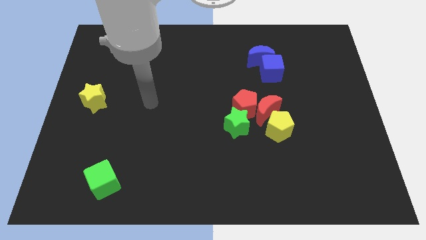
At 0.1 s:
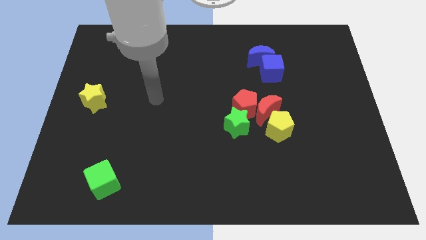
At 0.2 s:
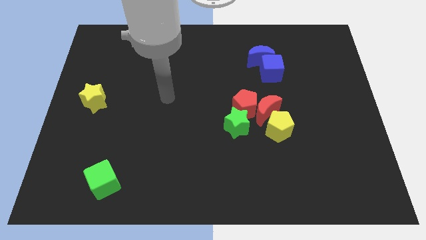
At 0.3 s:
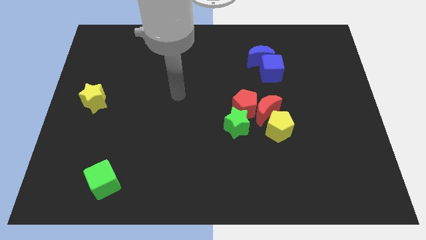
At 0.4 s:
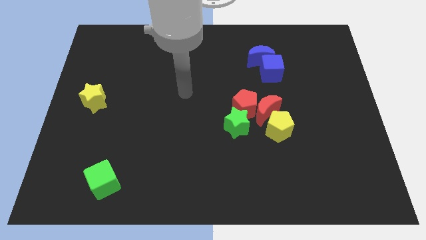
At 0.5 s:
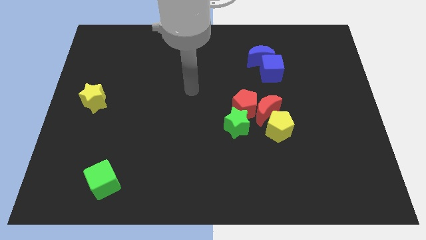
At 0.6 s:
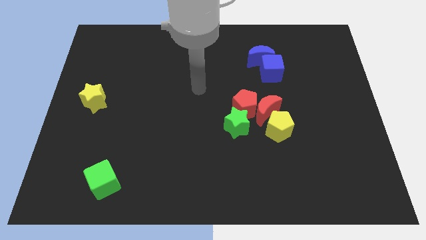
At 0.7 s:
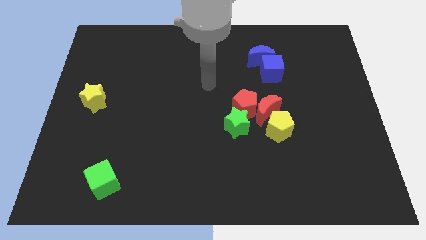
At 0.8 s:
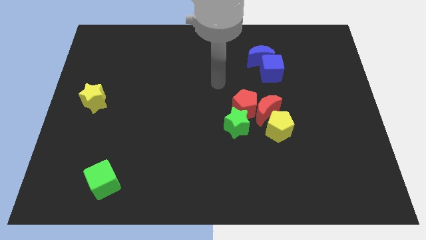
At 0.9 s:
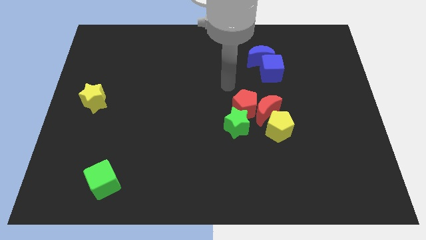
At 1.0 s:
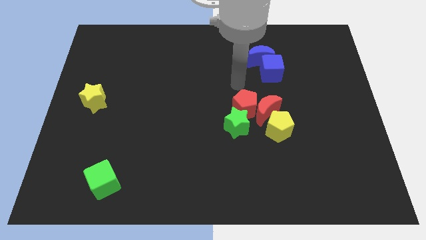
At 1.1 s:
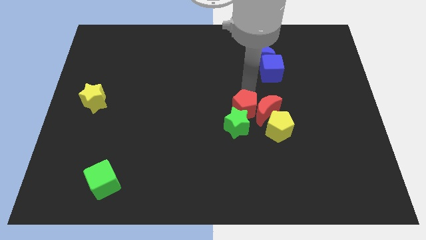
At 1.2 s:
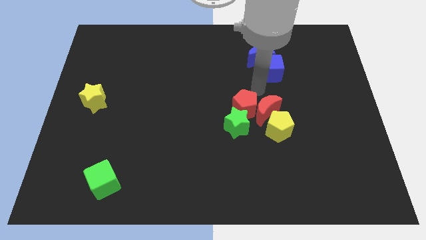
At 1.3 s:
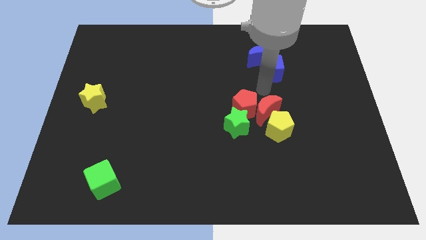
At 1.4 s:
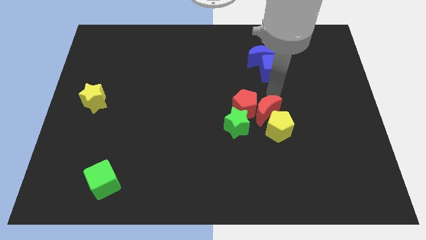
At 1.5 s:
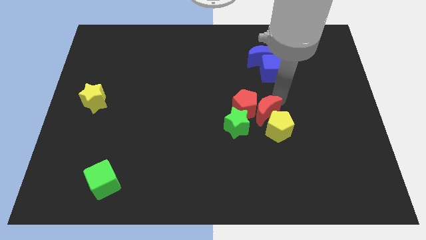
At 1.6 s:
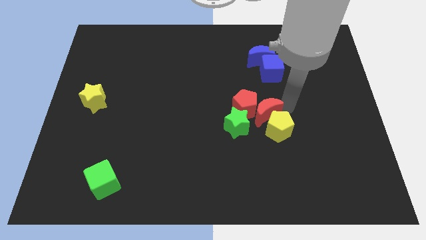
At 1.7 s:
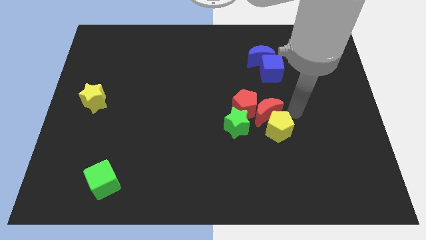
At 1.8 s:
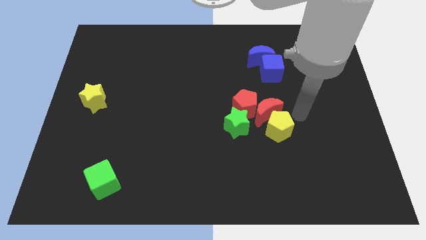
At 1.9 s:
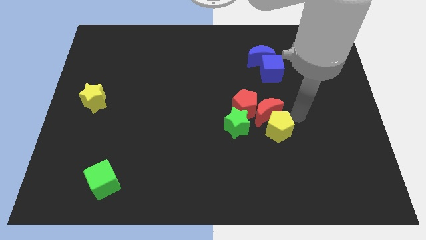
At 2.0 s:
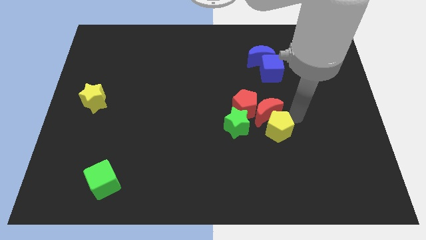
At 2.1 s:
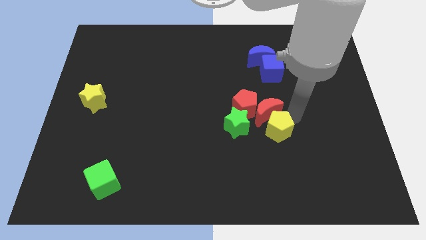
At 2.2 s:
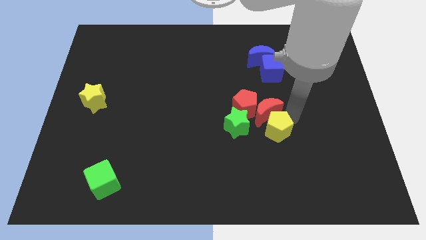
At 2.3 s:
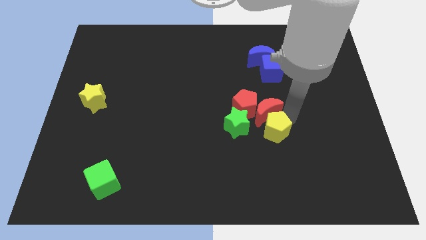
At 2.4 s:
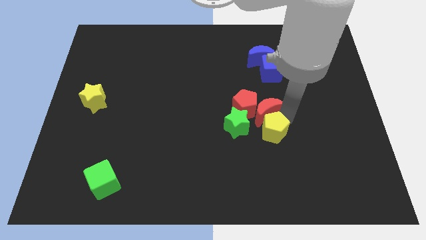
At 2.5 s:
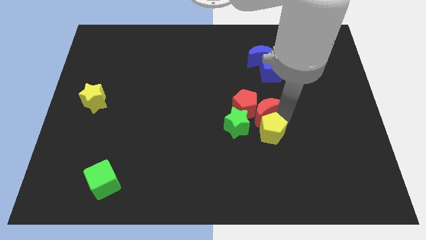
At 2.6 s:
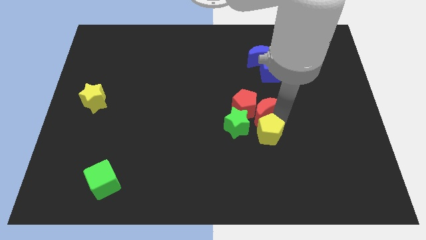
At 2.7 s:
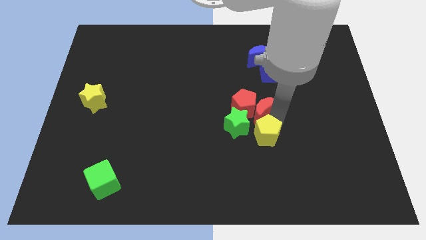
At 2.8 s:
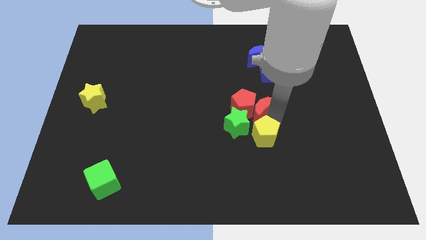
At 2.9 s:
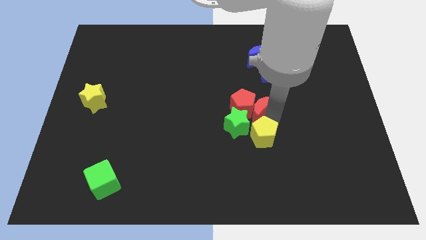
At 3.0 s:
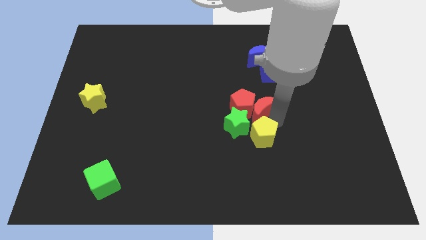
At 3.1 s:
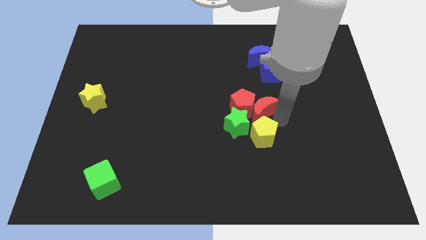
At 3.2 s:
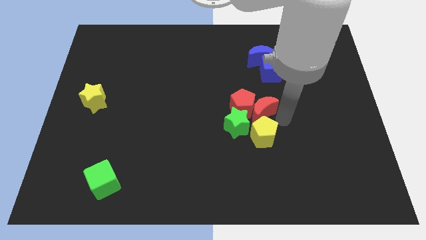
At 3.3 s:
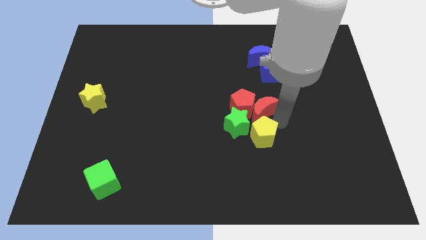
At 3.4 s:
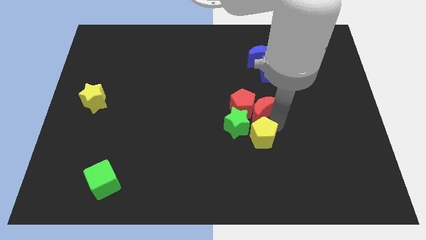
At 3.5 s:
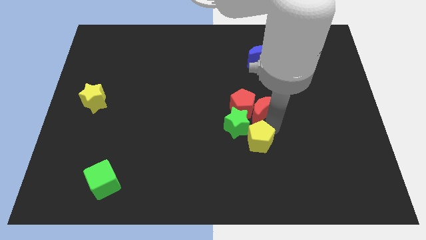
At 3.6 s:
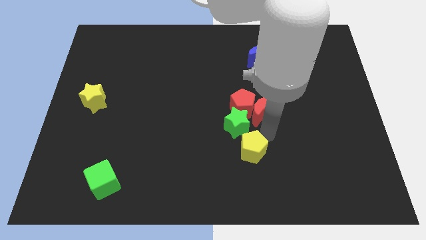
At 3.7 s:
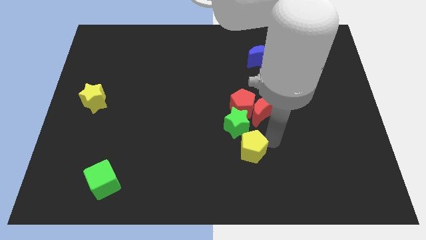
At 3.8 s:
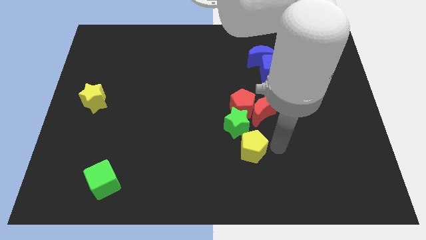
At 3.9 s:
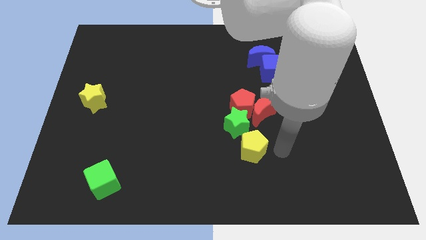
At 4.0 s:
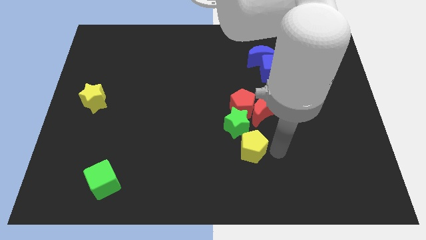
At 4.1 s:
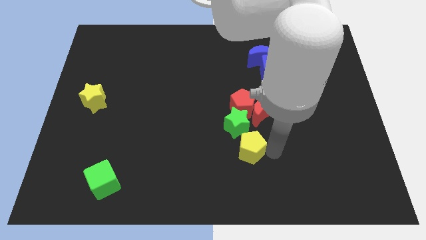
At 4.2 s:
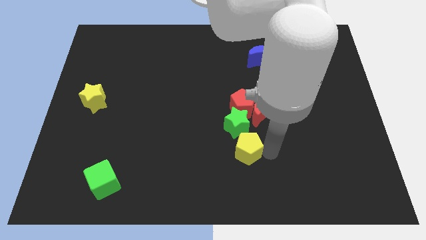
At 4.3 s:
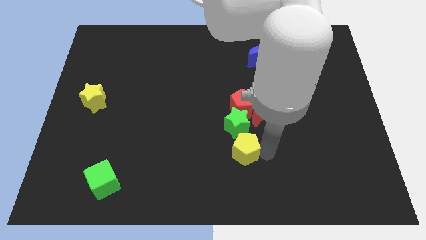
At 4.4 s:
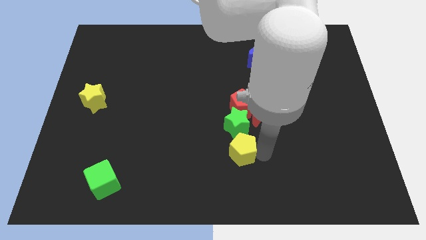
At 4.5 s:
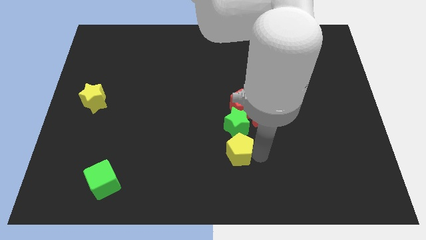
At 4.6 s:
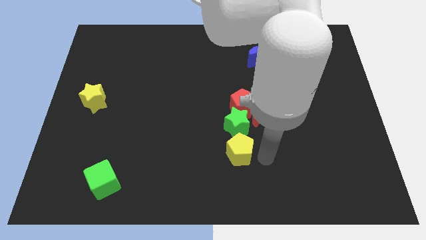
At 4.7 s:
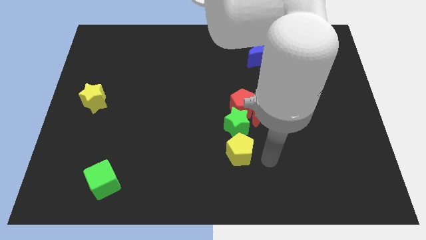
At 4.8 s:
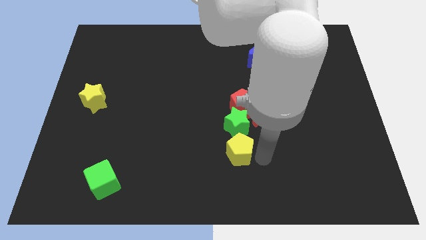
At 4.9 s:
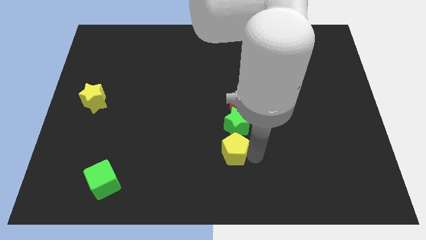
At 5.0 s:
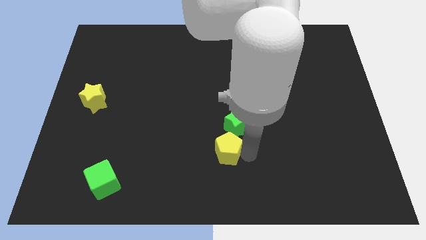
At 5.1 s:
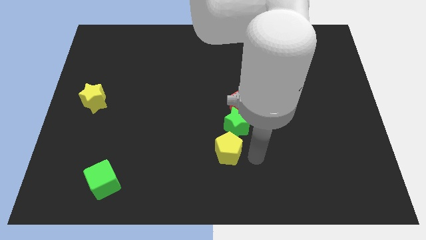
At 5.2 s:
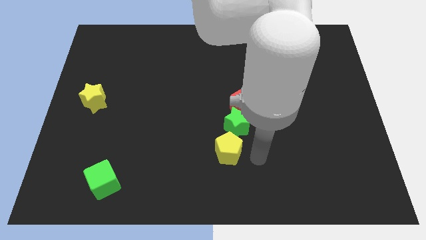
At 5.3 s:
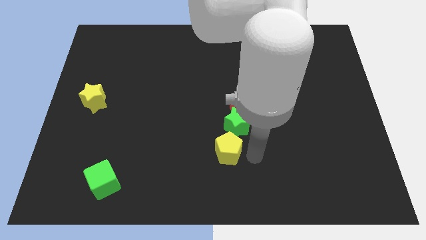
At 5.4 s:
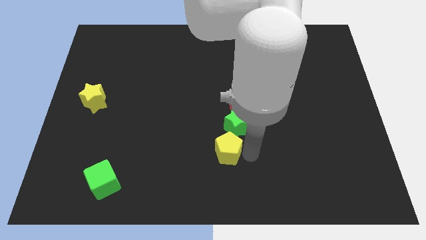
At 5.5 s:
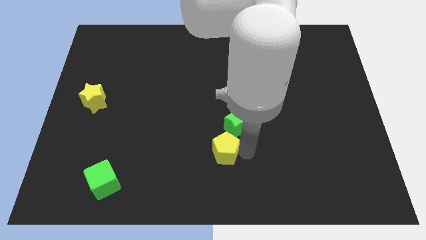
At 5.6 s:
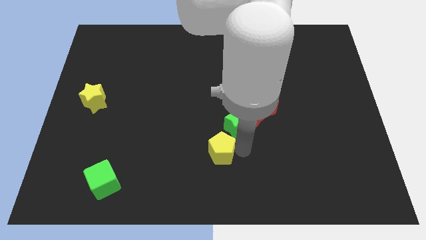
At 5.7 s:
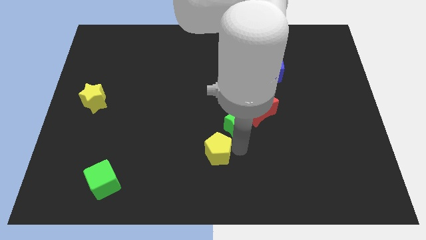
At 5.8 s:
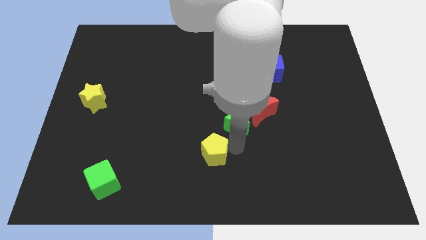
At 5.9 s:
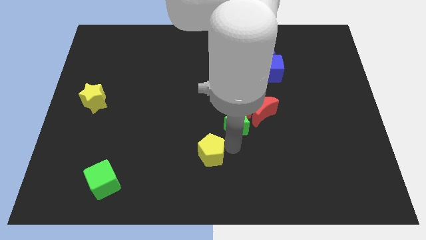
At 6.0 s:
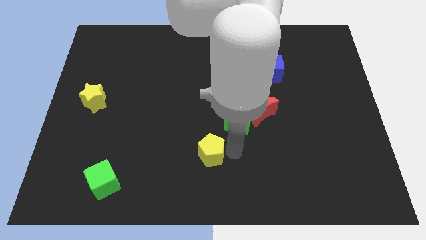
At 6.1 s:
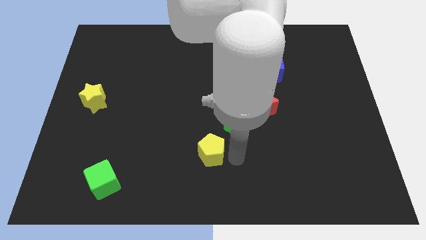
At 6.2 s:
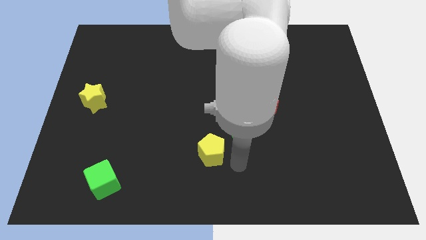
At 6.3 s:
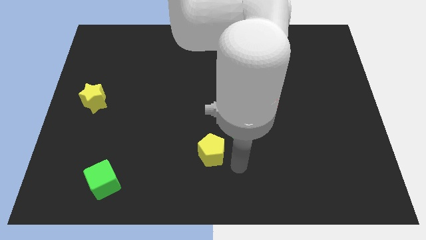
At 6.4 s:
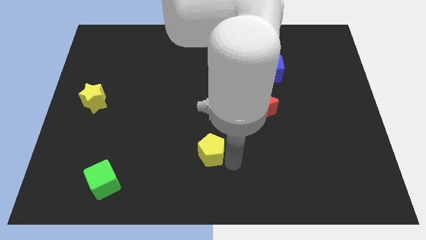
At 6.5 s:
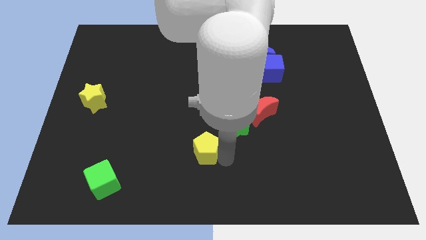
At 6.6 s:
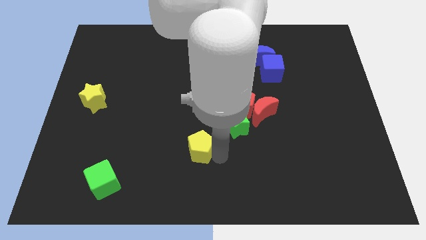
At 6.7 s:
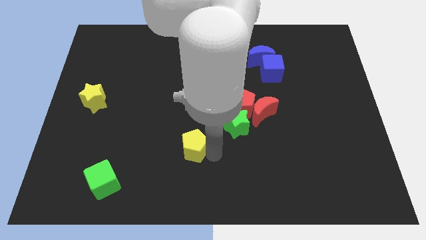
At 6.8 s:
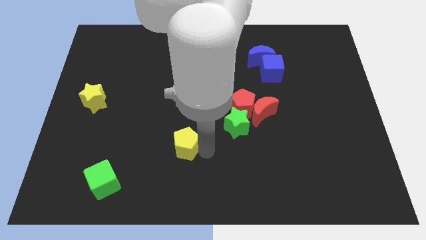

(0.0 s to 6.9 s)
slide the yellow pentagon left

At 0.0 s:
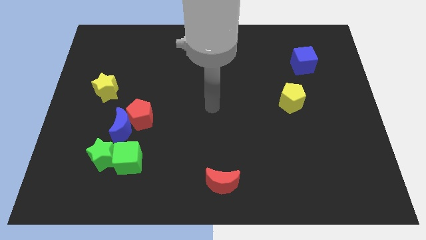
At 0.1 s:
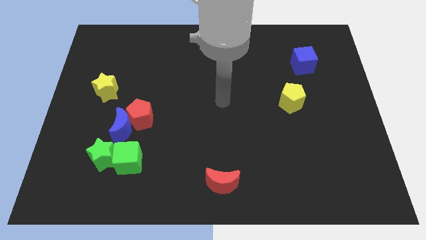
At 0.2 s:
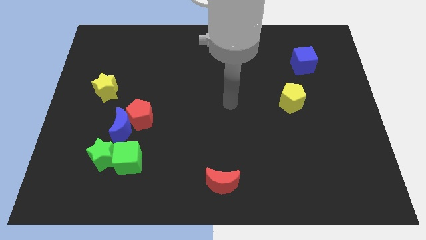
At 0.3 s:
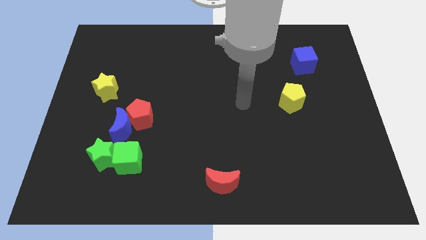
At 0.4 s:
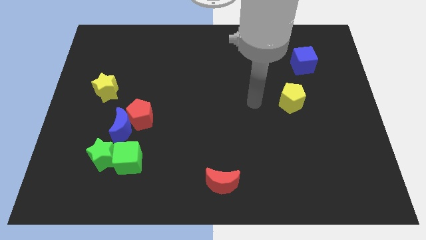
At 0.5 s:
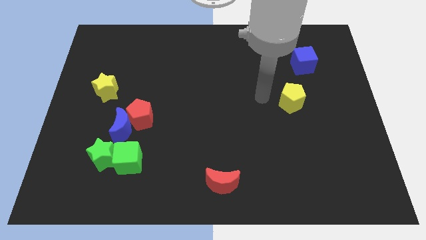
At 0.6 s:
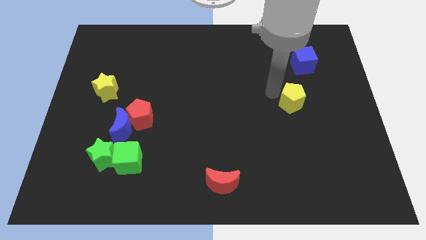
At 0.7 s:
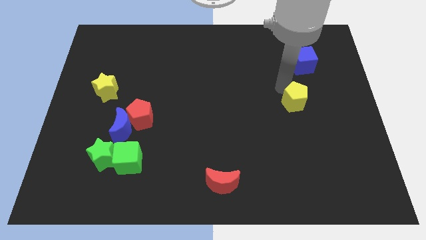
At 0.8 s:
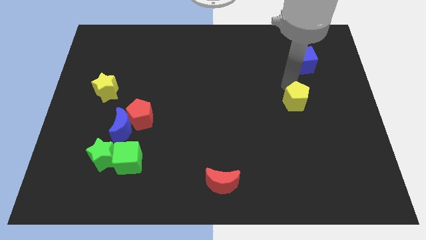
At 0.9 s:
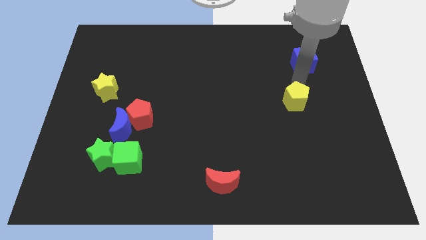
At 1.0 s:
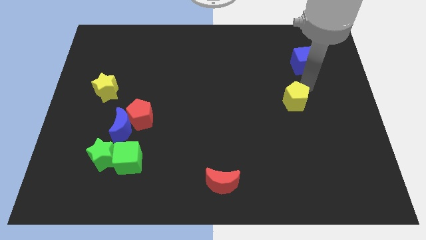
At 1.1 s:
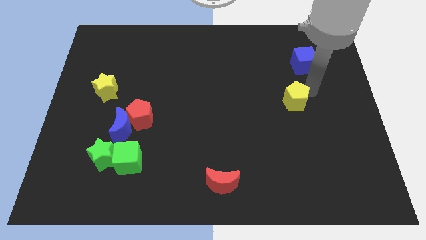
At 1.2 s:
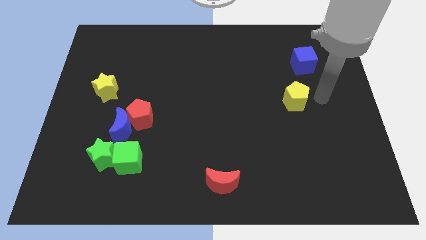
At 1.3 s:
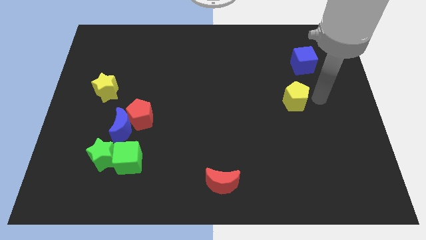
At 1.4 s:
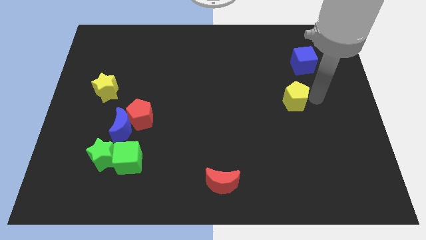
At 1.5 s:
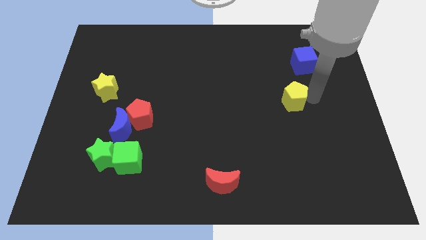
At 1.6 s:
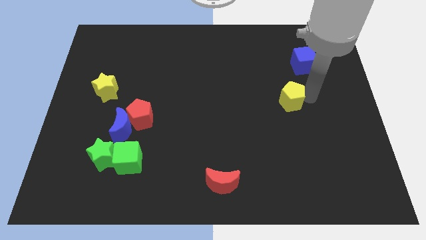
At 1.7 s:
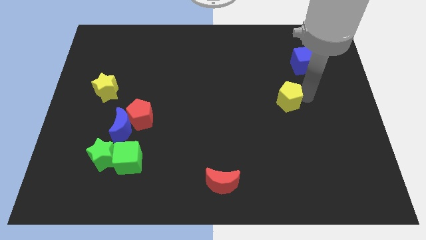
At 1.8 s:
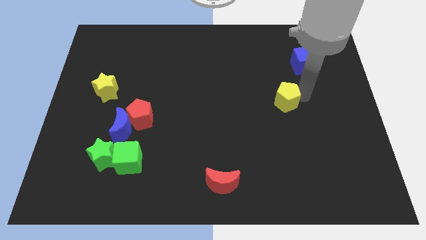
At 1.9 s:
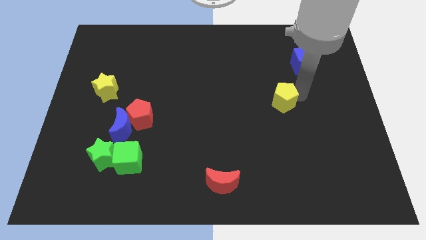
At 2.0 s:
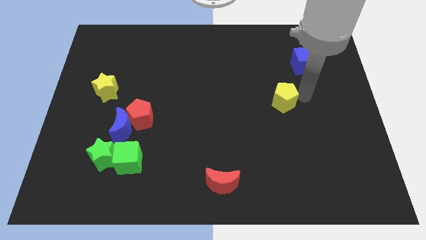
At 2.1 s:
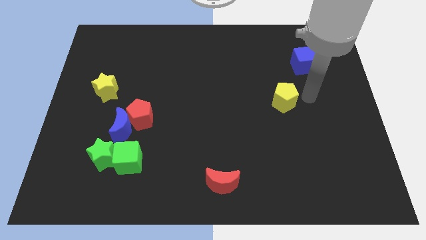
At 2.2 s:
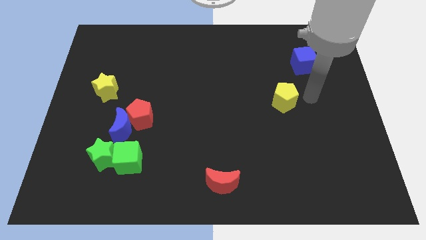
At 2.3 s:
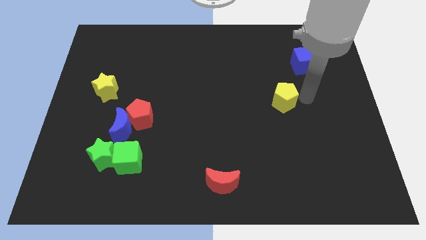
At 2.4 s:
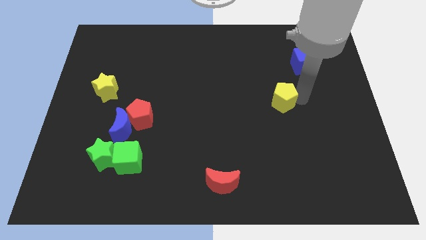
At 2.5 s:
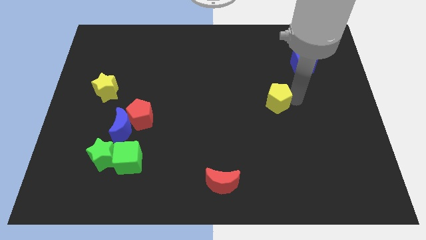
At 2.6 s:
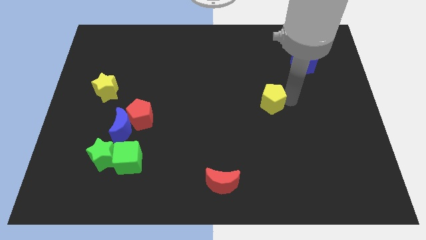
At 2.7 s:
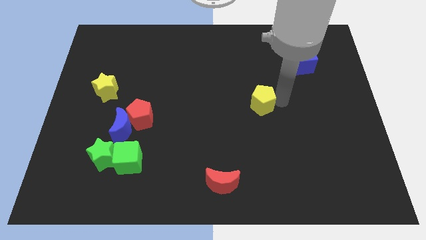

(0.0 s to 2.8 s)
slide the yellow pentagon left slightly
